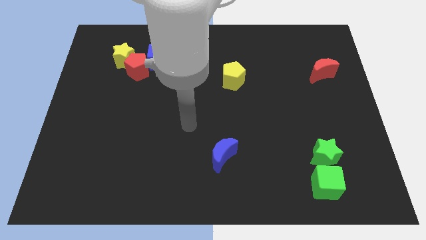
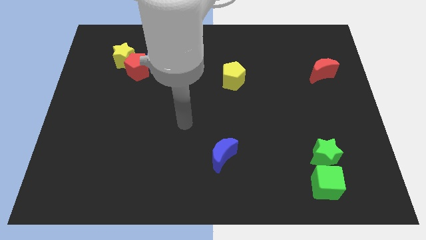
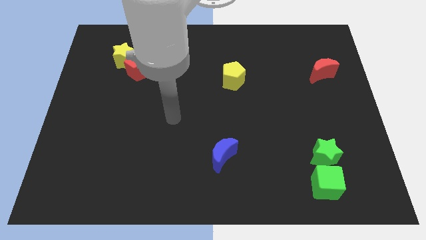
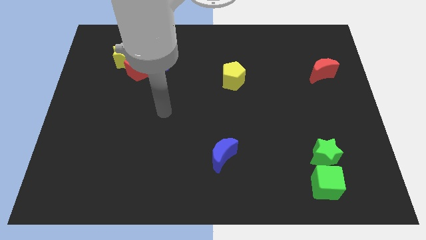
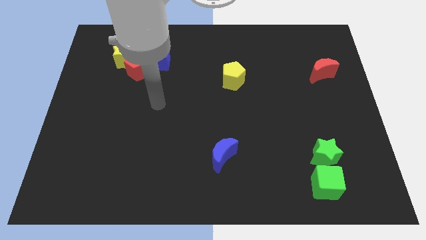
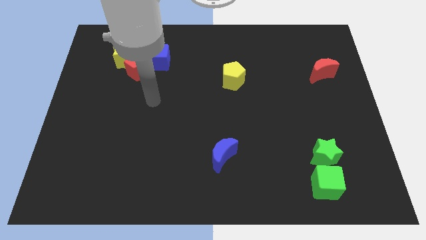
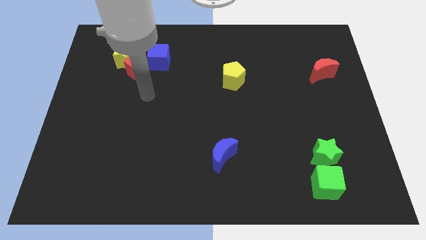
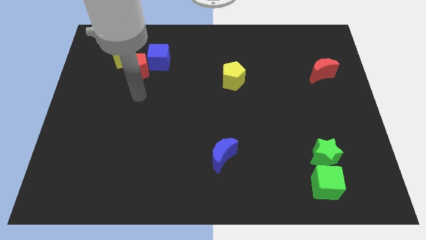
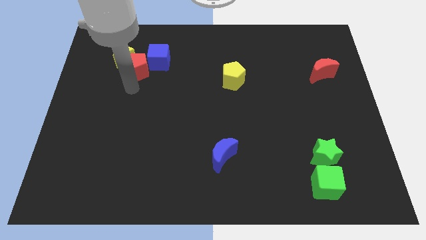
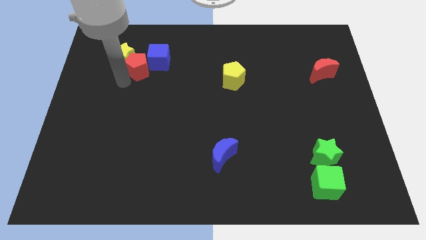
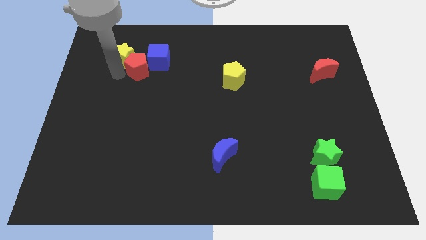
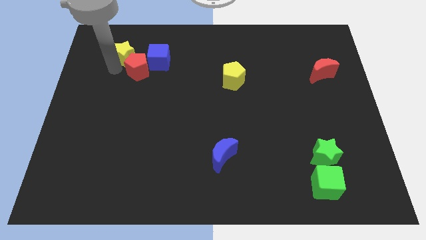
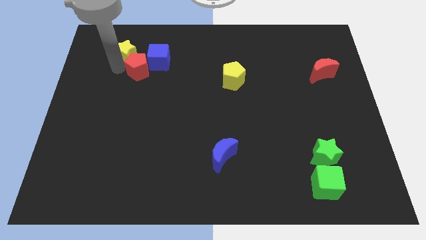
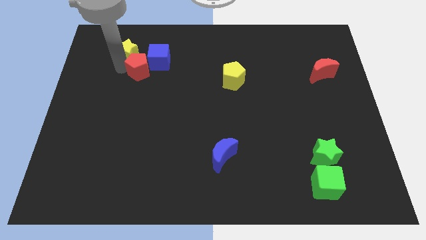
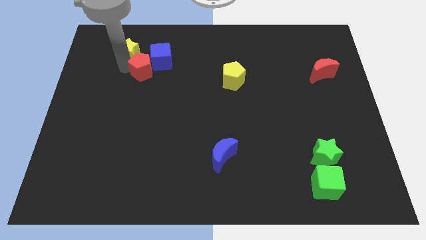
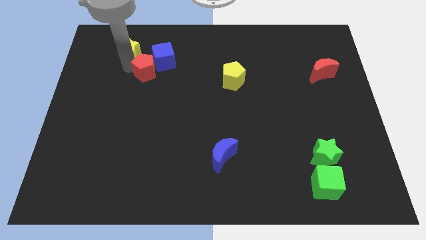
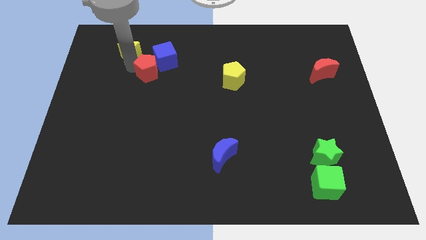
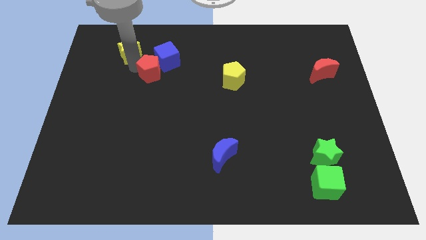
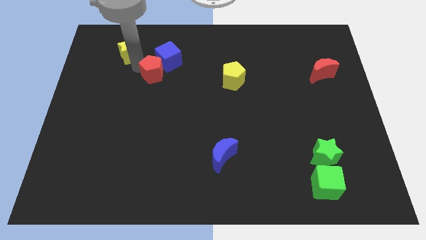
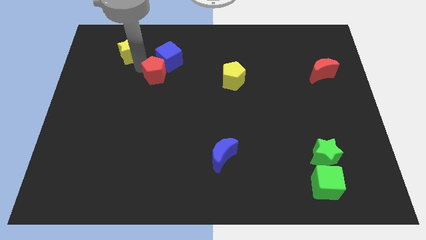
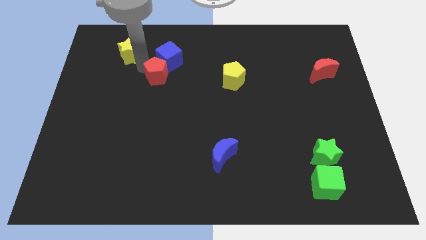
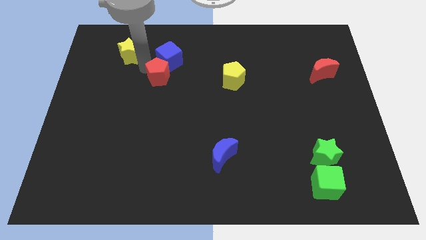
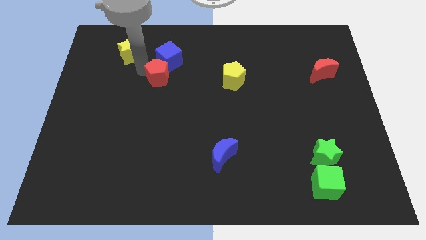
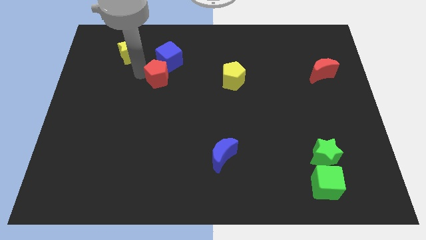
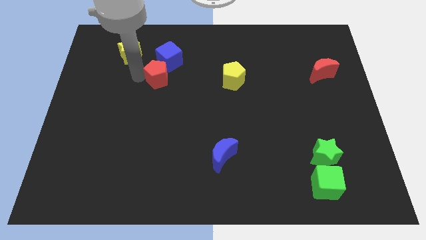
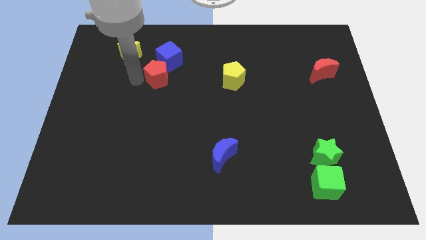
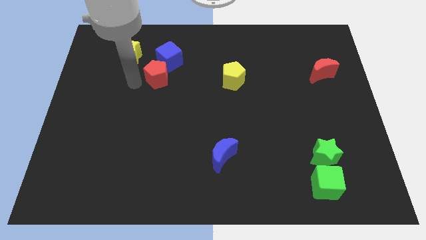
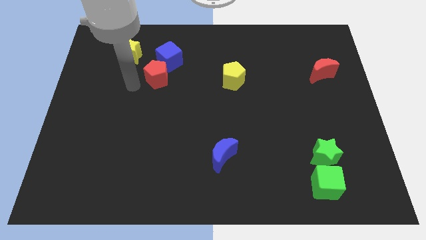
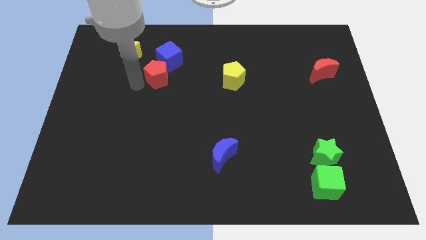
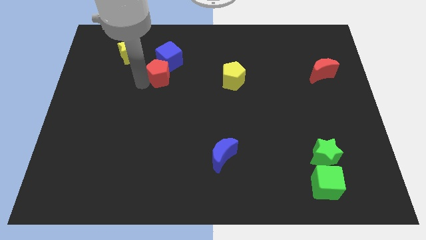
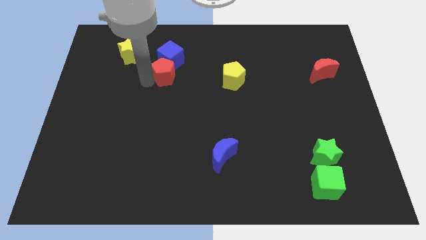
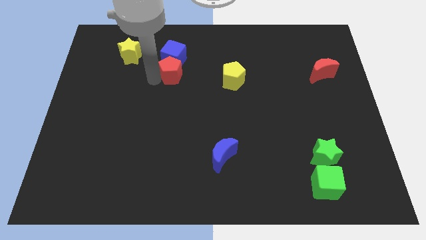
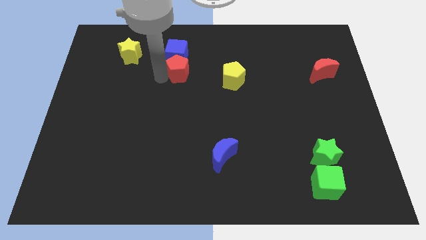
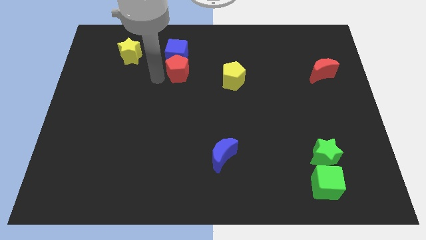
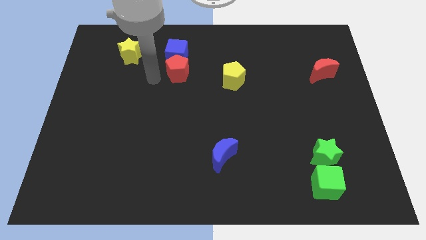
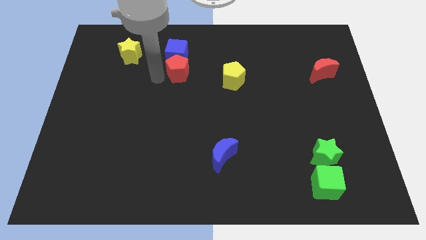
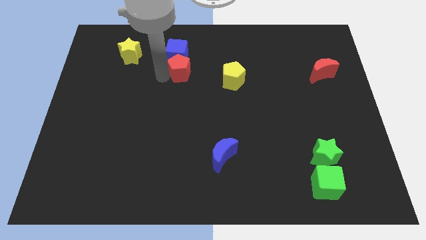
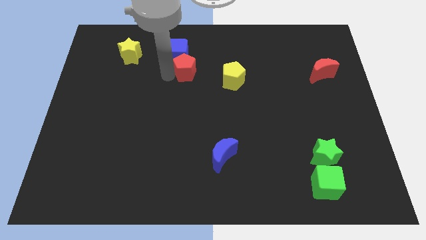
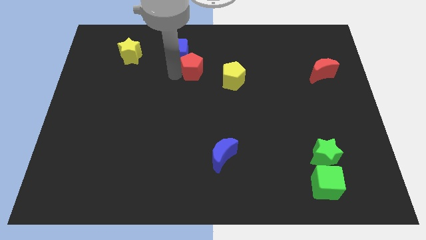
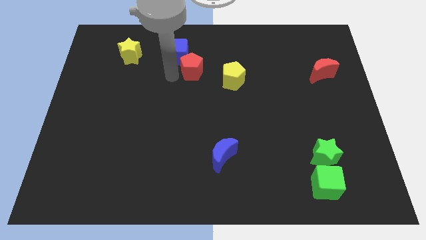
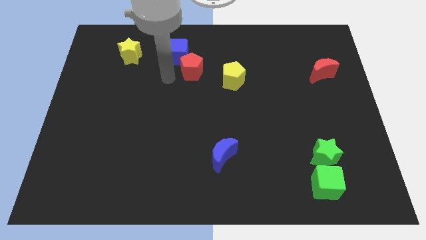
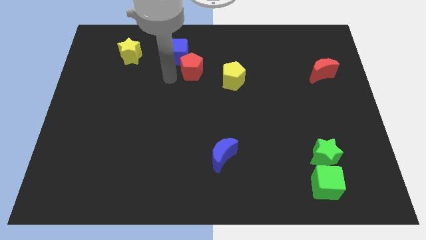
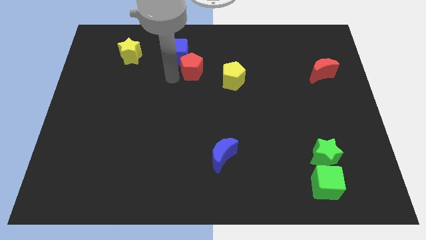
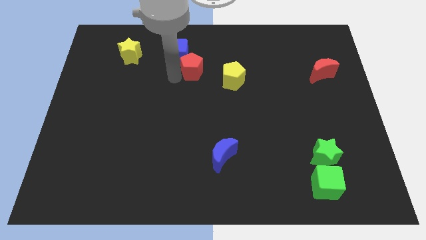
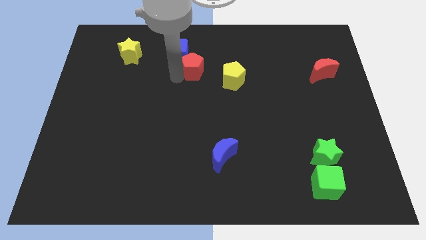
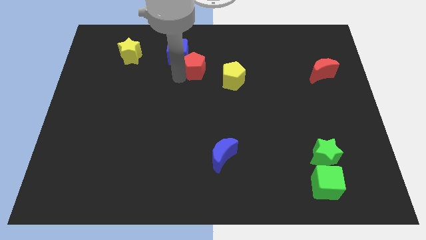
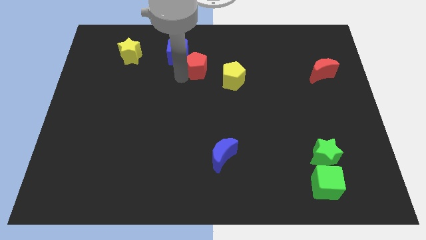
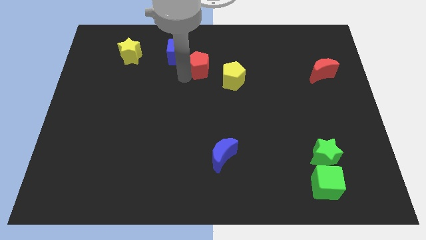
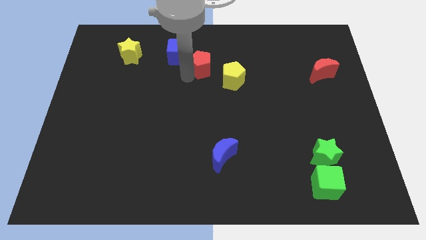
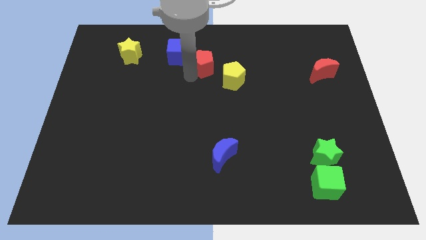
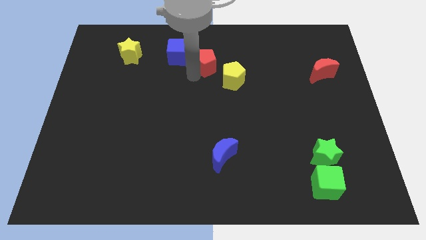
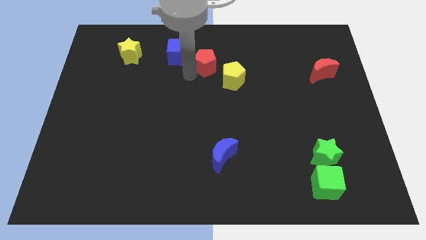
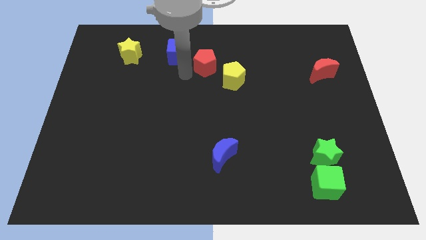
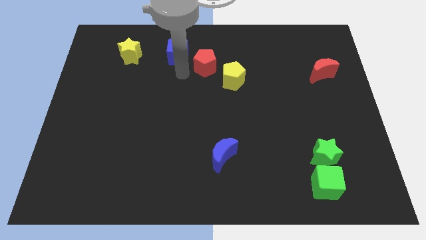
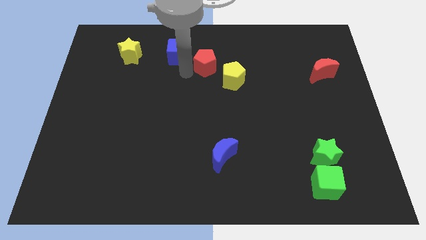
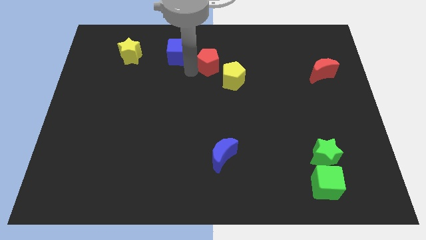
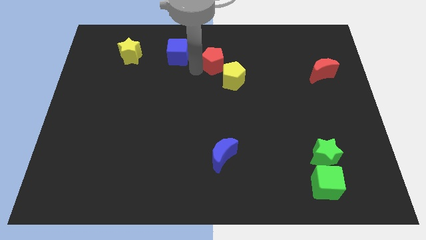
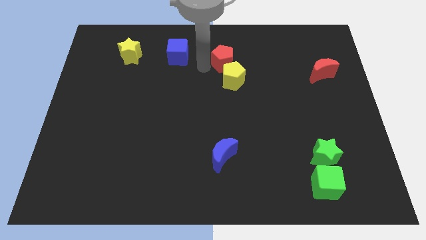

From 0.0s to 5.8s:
move the red pentagon to the right

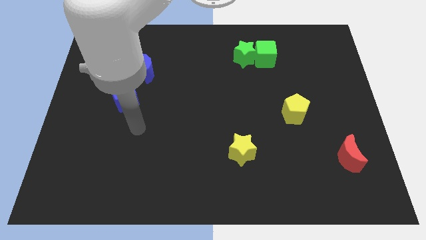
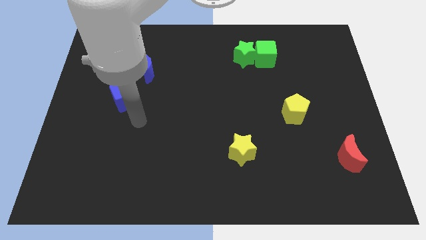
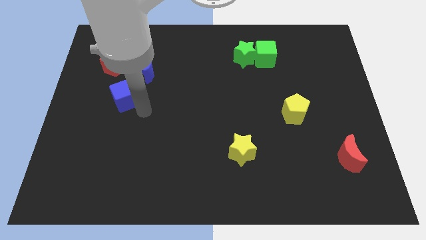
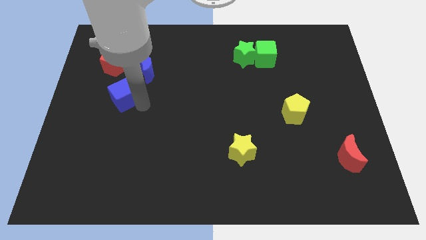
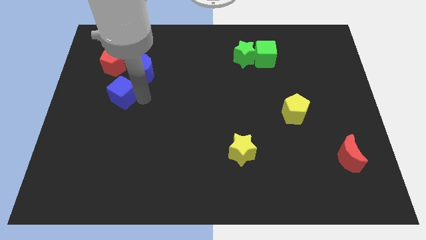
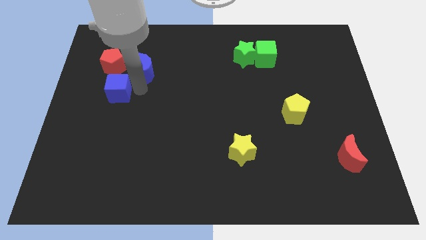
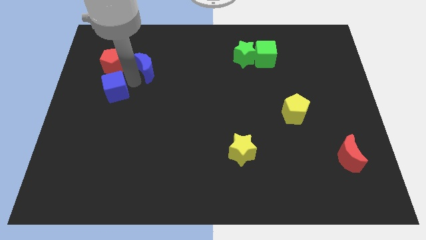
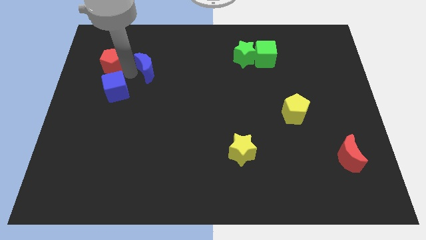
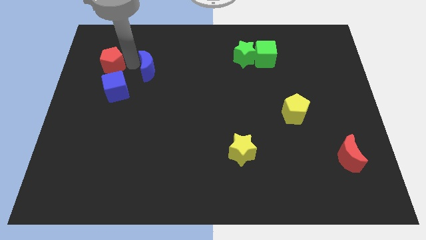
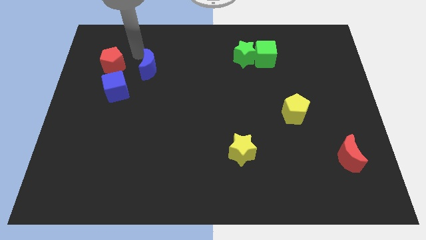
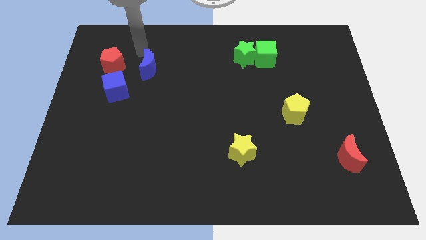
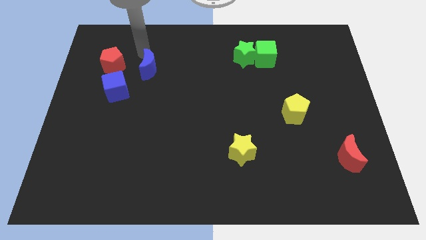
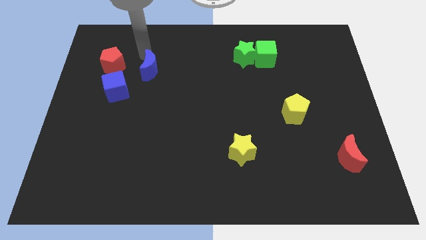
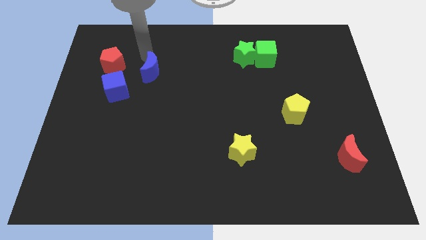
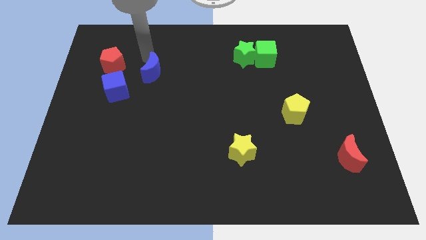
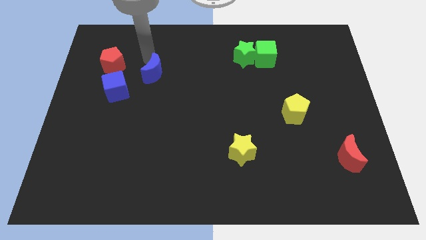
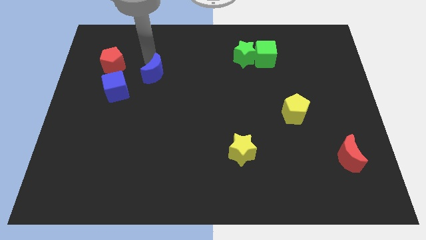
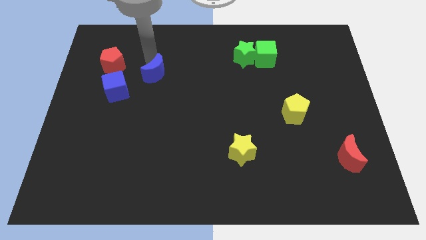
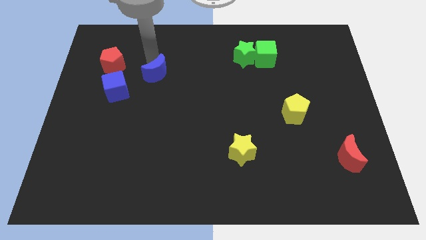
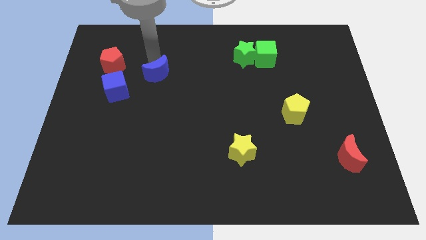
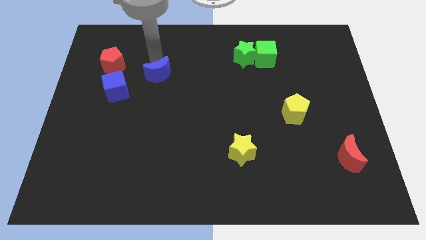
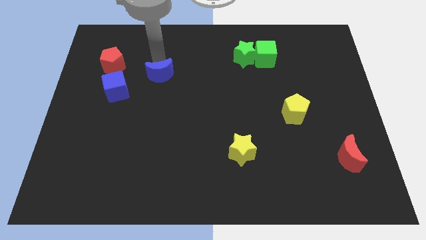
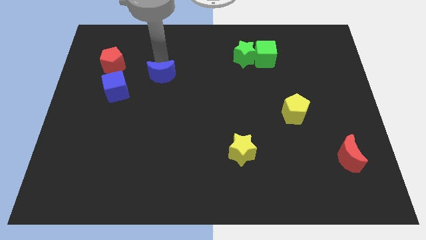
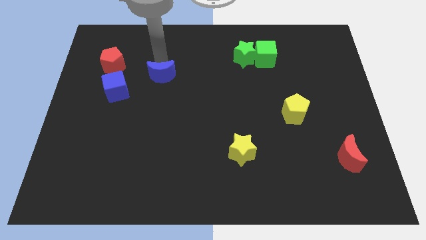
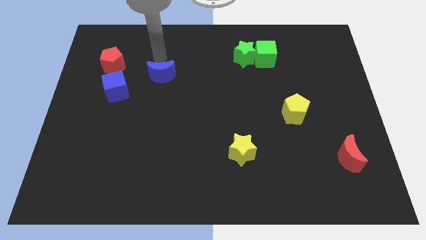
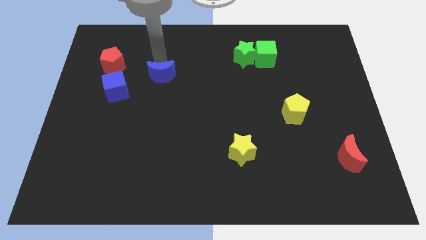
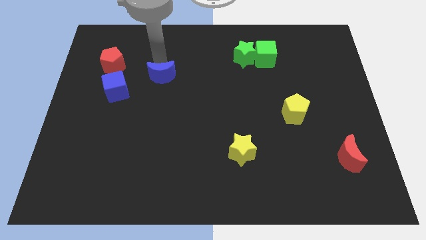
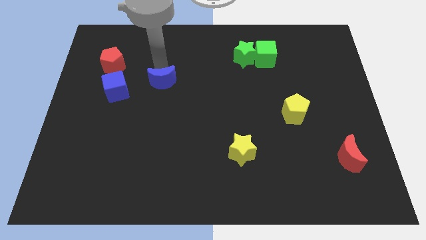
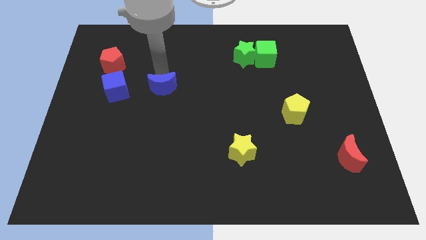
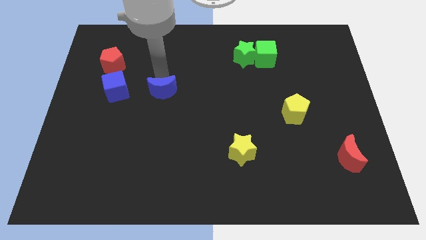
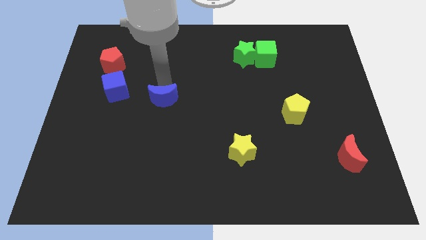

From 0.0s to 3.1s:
push the blue moon a little bit downwards
